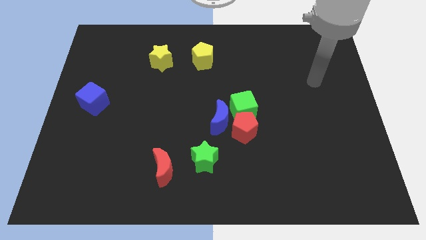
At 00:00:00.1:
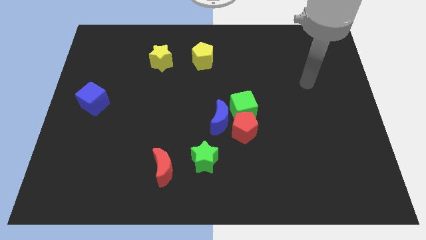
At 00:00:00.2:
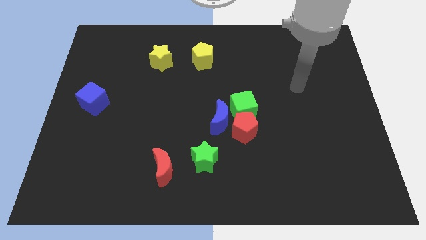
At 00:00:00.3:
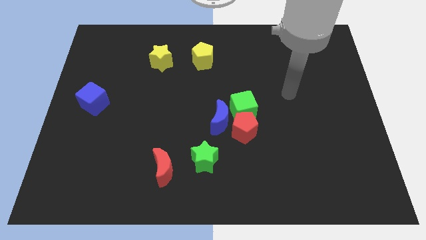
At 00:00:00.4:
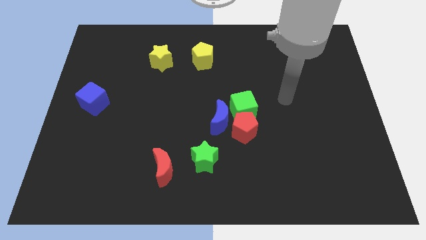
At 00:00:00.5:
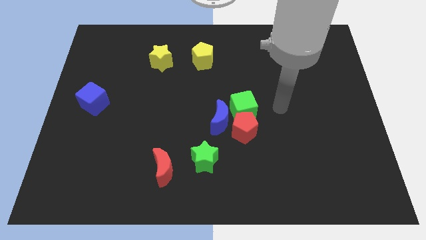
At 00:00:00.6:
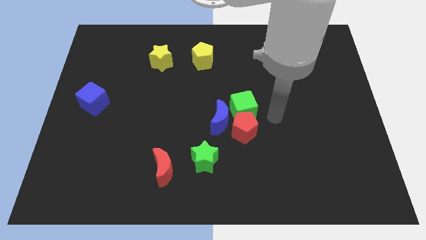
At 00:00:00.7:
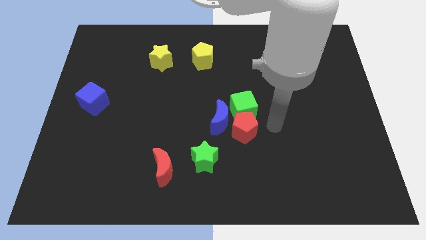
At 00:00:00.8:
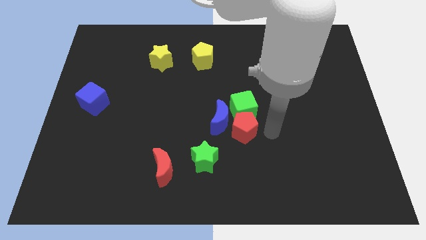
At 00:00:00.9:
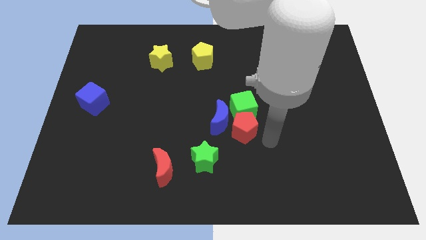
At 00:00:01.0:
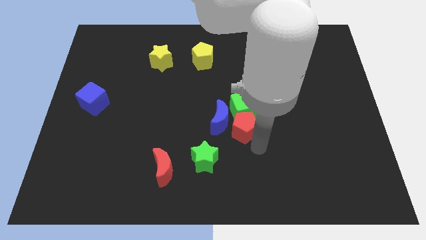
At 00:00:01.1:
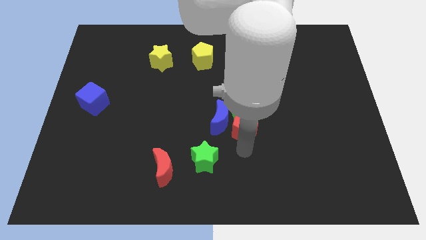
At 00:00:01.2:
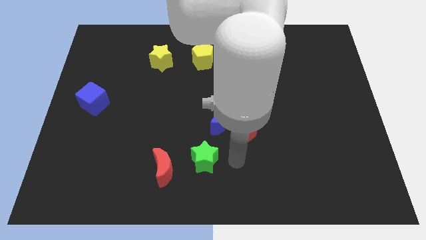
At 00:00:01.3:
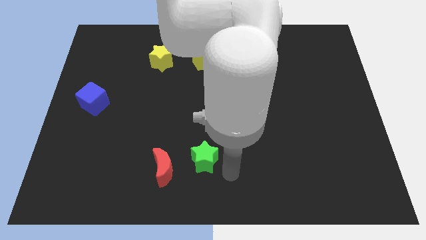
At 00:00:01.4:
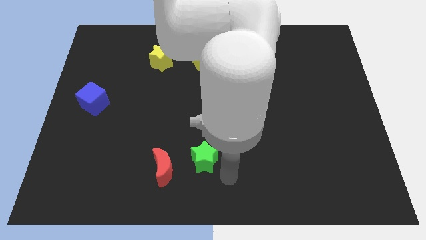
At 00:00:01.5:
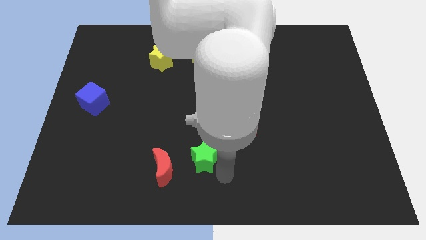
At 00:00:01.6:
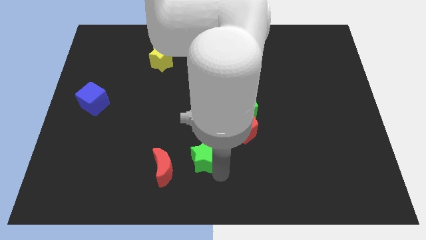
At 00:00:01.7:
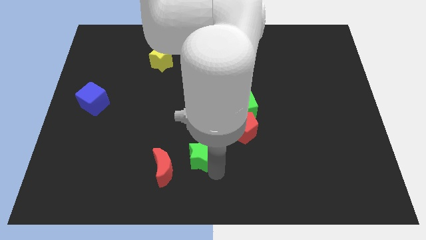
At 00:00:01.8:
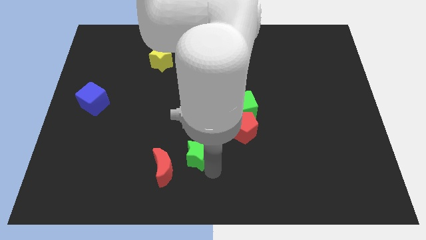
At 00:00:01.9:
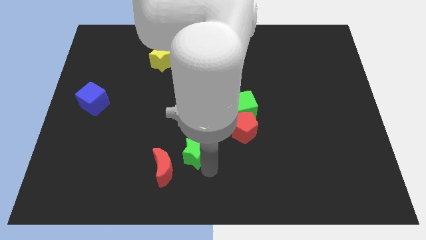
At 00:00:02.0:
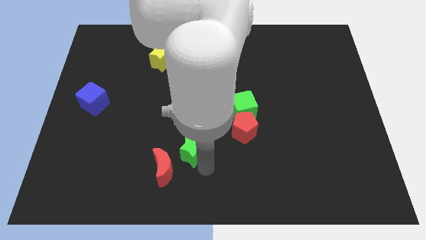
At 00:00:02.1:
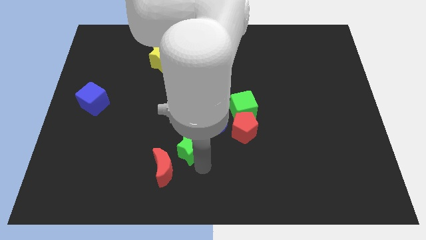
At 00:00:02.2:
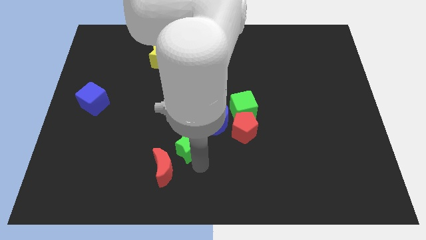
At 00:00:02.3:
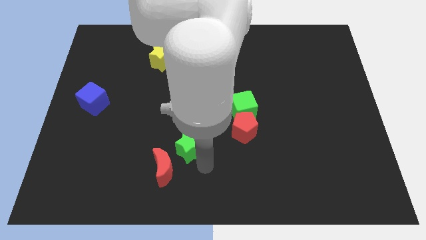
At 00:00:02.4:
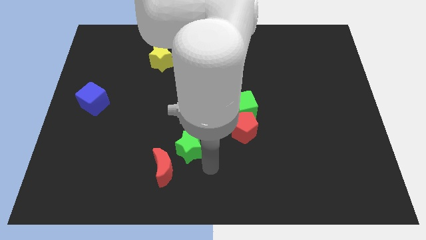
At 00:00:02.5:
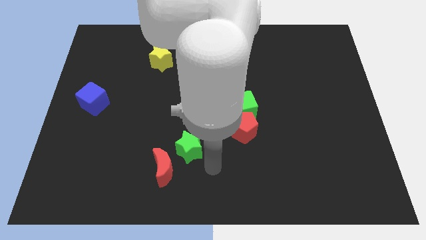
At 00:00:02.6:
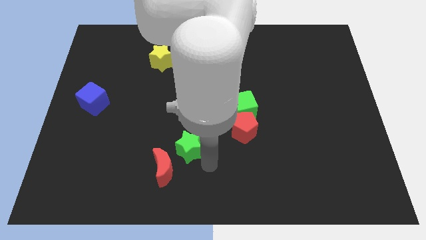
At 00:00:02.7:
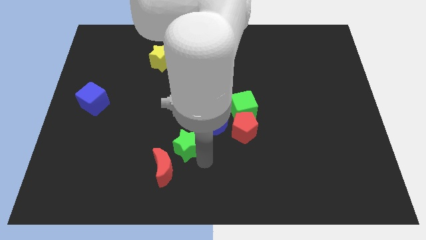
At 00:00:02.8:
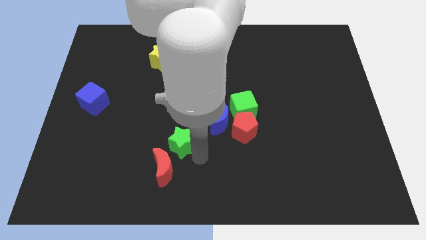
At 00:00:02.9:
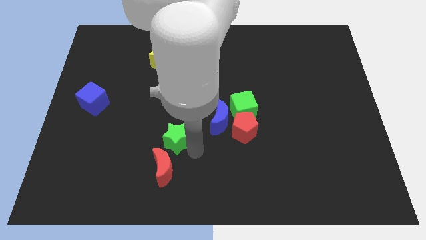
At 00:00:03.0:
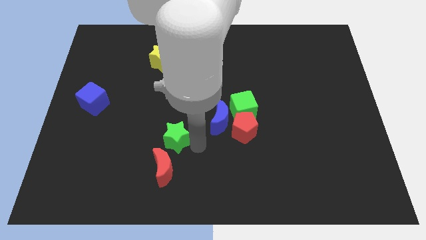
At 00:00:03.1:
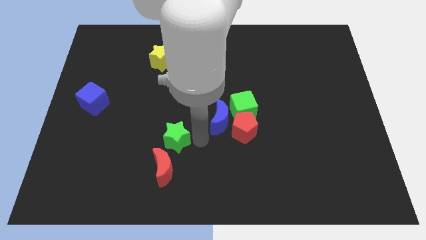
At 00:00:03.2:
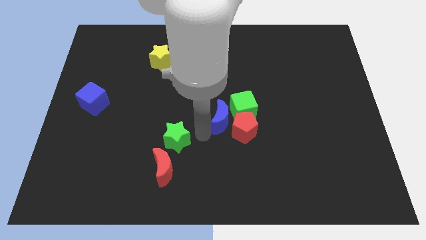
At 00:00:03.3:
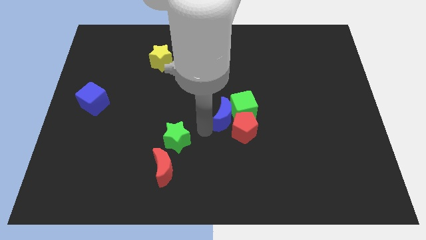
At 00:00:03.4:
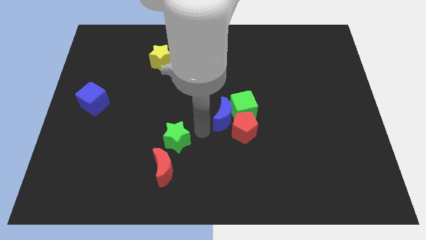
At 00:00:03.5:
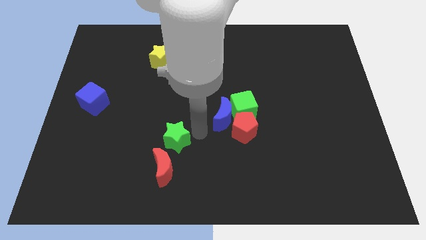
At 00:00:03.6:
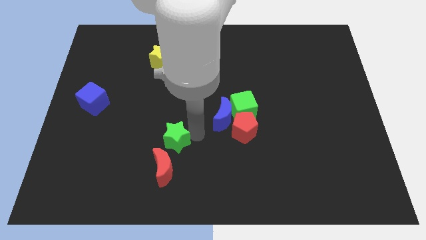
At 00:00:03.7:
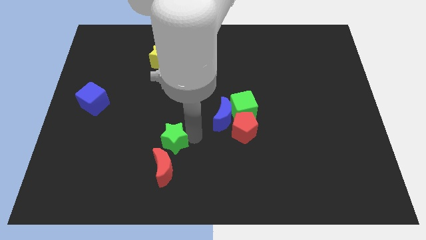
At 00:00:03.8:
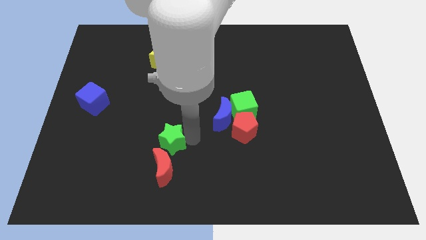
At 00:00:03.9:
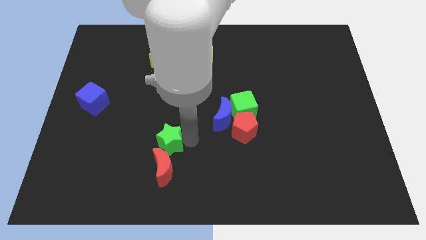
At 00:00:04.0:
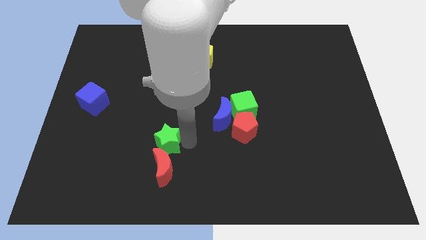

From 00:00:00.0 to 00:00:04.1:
push the green star left somewhat

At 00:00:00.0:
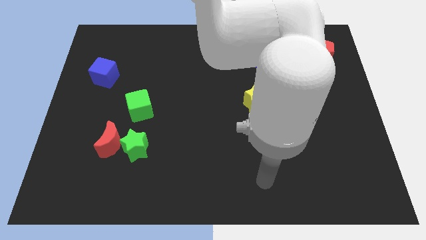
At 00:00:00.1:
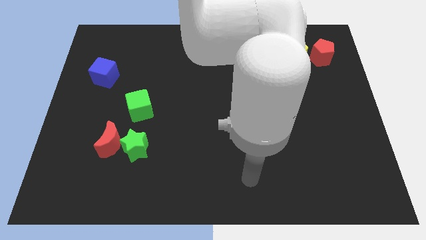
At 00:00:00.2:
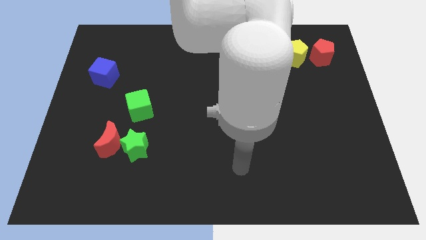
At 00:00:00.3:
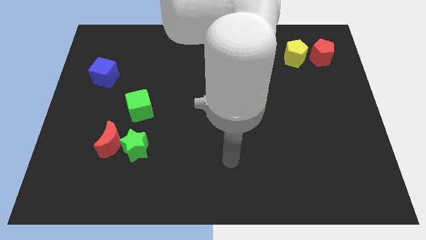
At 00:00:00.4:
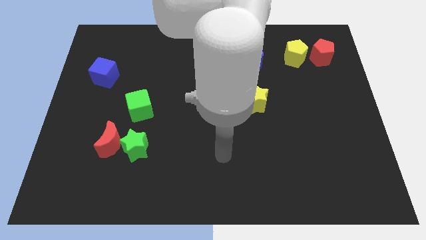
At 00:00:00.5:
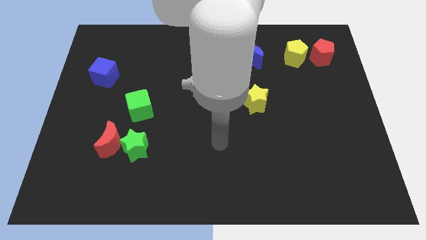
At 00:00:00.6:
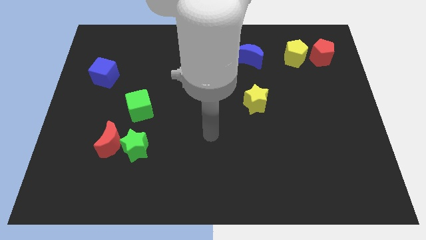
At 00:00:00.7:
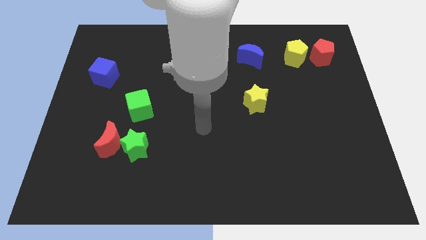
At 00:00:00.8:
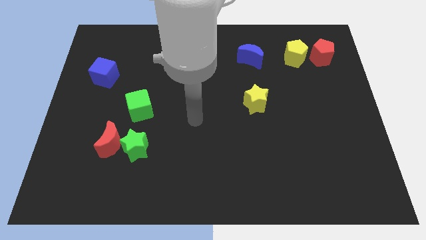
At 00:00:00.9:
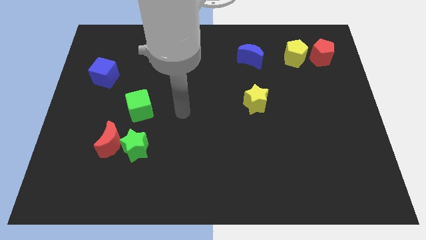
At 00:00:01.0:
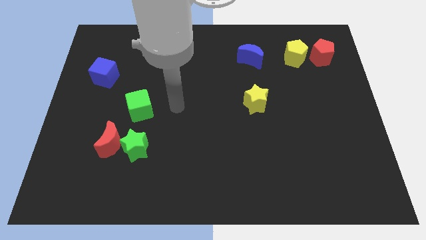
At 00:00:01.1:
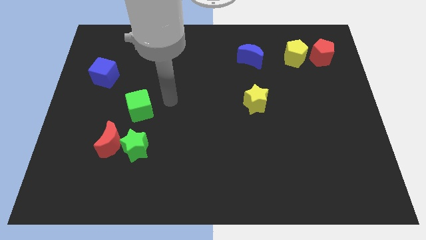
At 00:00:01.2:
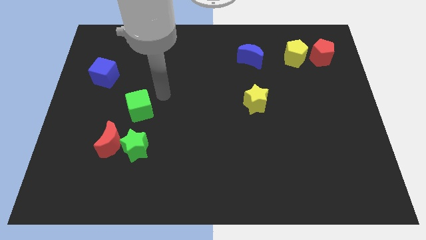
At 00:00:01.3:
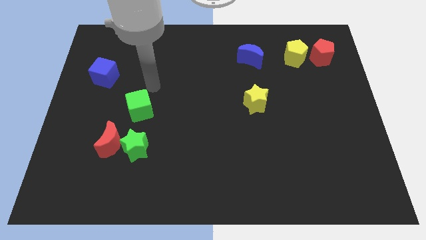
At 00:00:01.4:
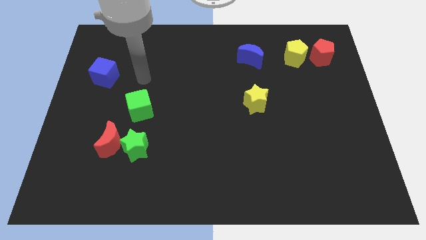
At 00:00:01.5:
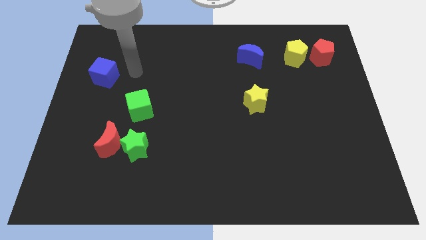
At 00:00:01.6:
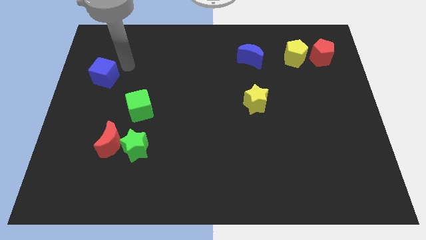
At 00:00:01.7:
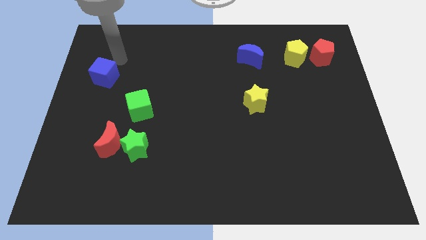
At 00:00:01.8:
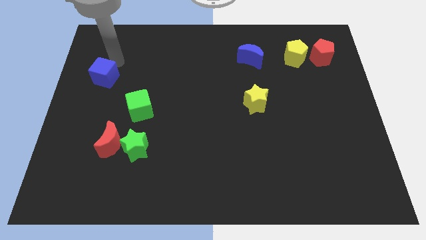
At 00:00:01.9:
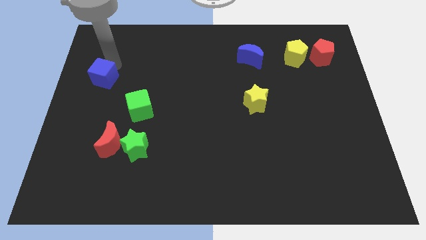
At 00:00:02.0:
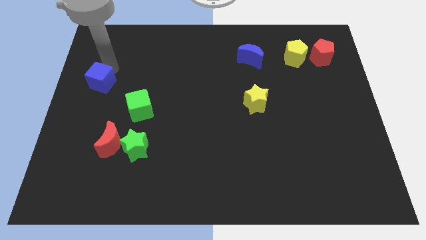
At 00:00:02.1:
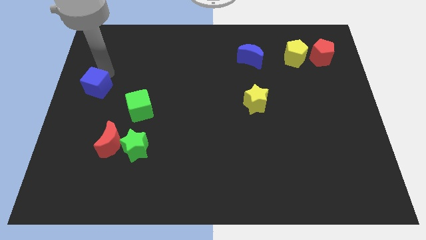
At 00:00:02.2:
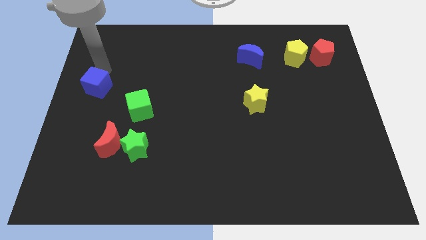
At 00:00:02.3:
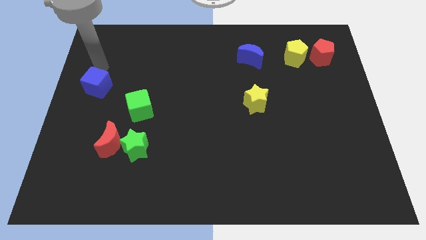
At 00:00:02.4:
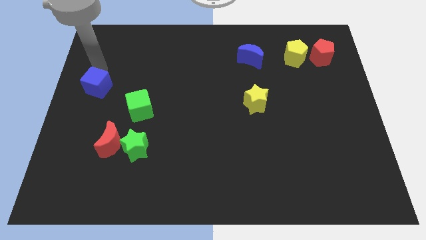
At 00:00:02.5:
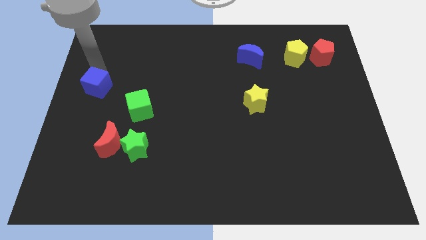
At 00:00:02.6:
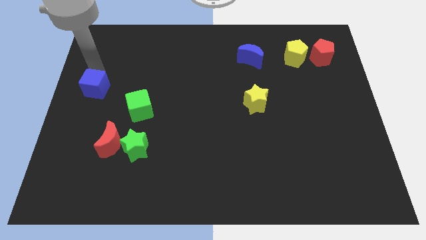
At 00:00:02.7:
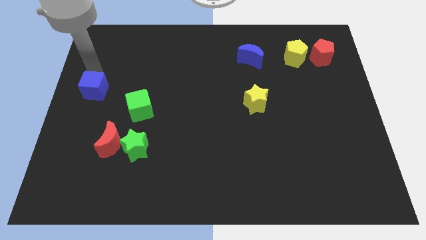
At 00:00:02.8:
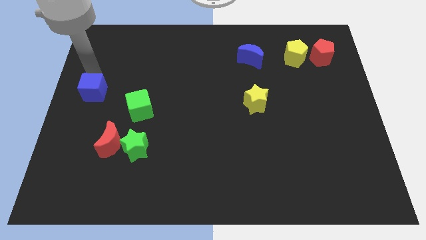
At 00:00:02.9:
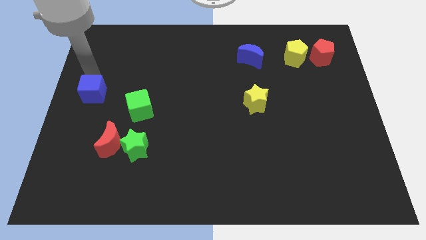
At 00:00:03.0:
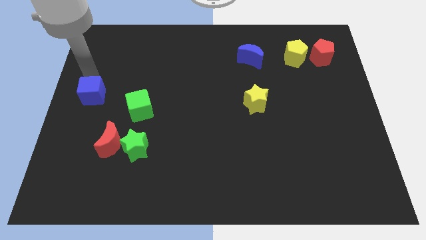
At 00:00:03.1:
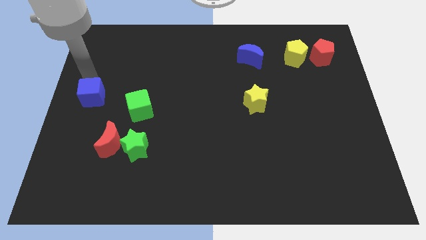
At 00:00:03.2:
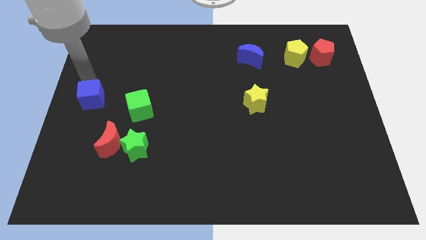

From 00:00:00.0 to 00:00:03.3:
slightly move the blue cube downwards

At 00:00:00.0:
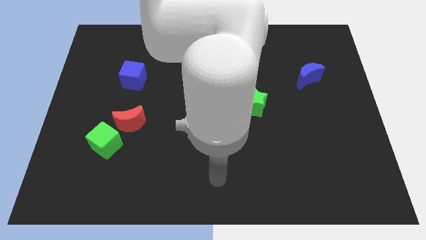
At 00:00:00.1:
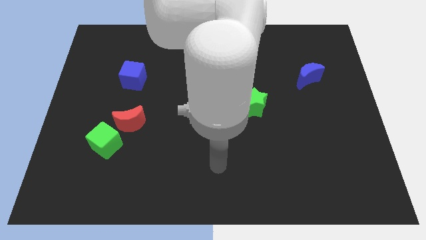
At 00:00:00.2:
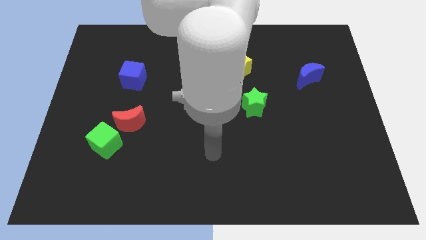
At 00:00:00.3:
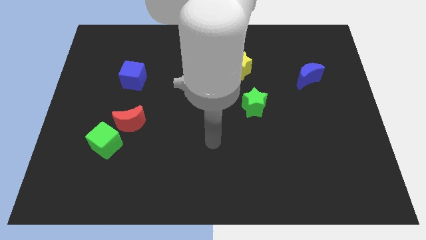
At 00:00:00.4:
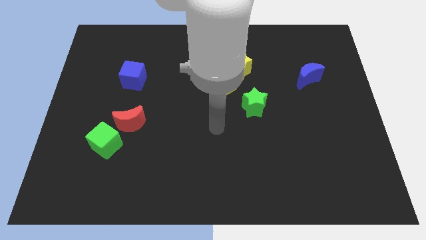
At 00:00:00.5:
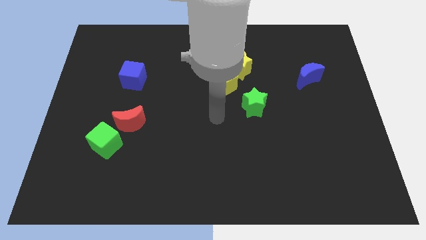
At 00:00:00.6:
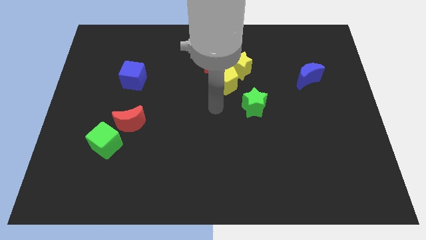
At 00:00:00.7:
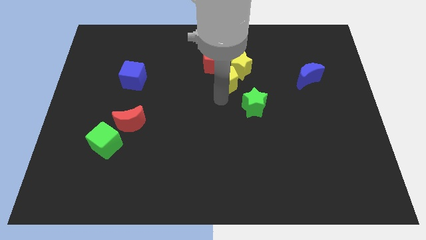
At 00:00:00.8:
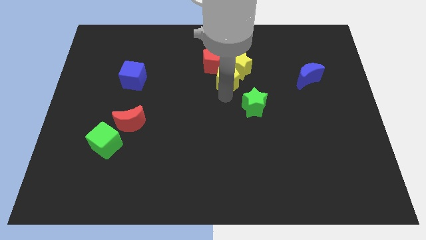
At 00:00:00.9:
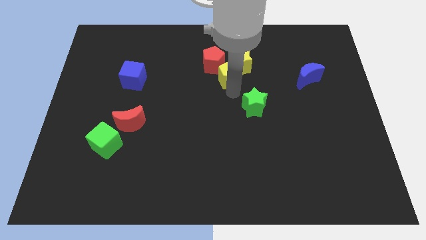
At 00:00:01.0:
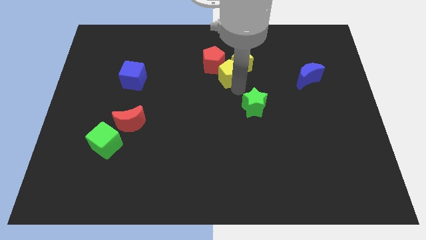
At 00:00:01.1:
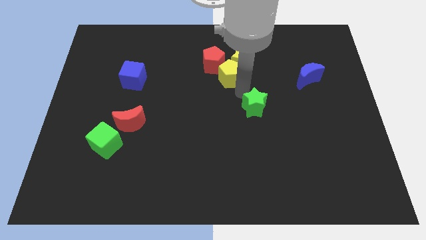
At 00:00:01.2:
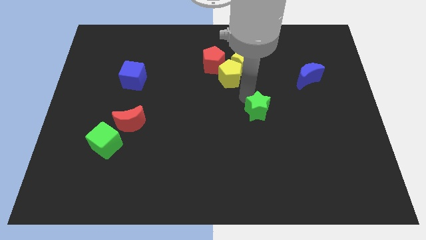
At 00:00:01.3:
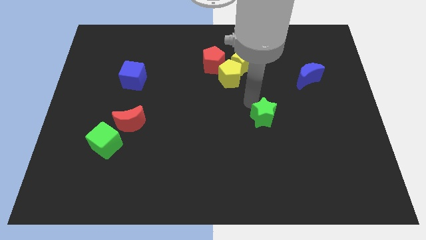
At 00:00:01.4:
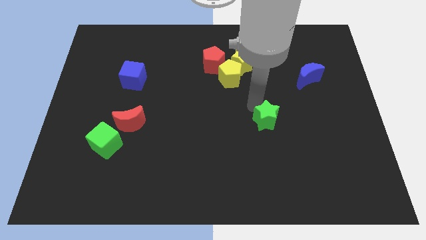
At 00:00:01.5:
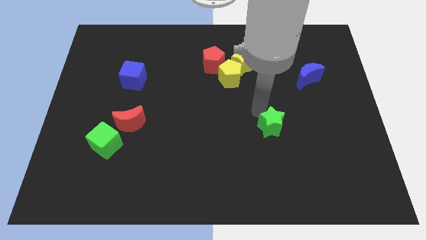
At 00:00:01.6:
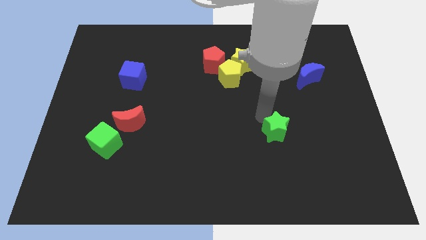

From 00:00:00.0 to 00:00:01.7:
slightly push the green star downwards and to the right
